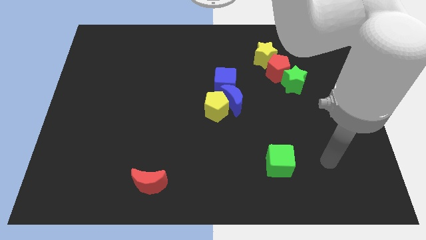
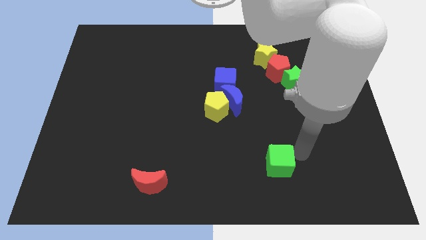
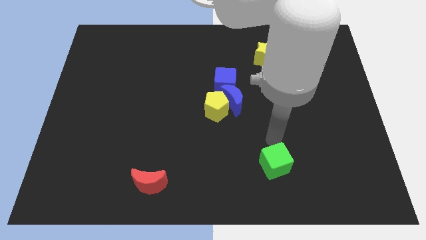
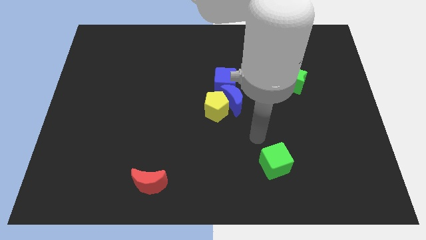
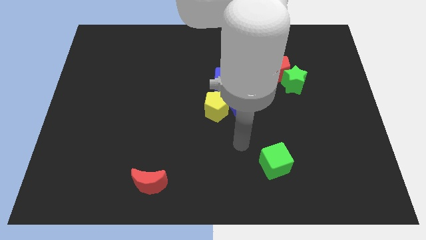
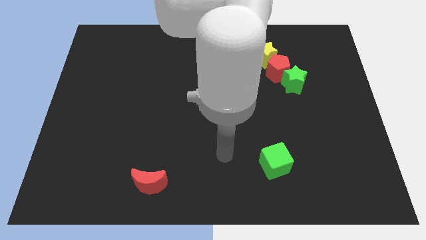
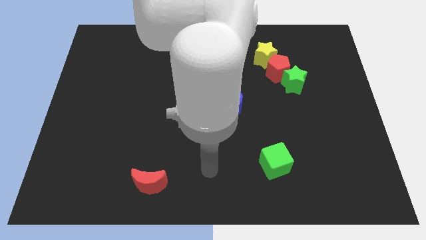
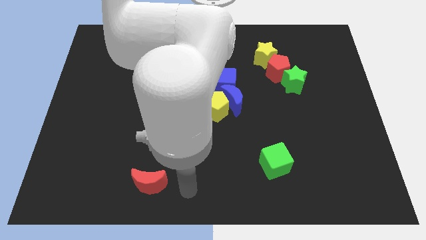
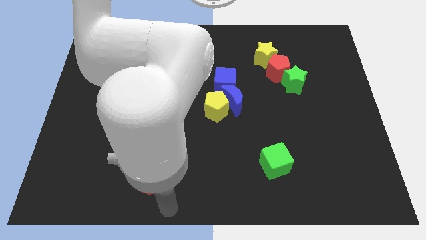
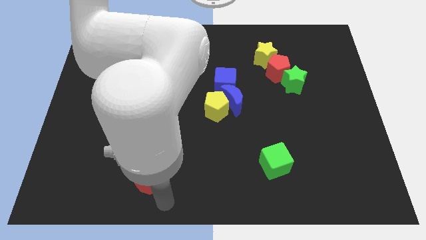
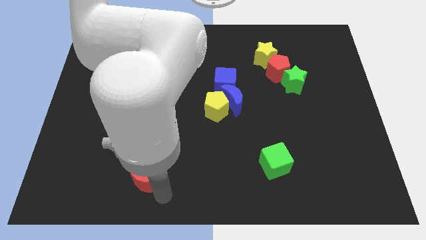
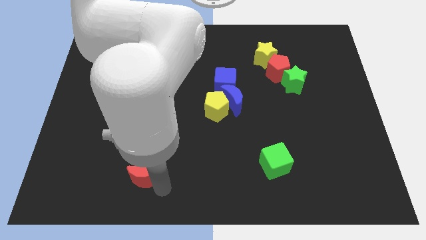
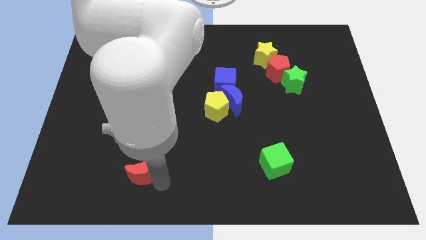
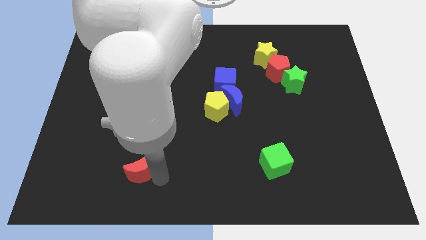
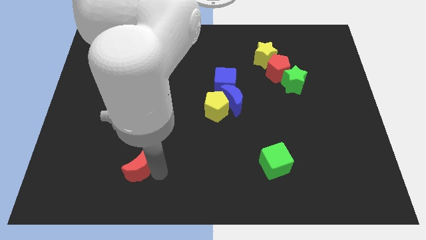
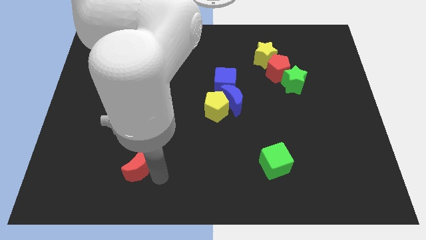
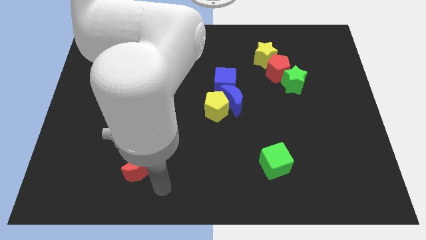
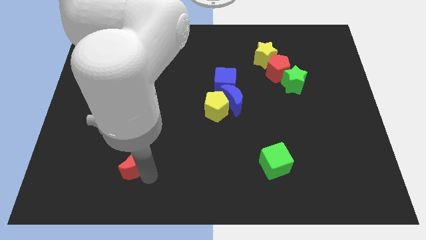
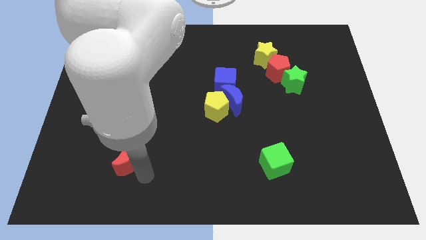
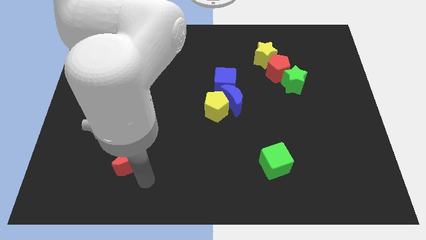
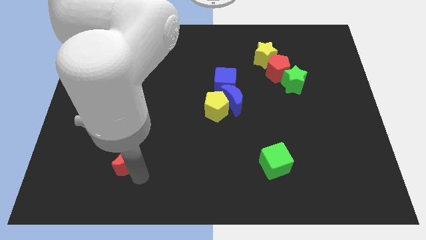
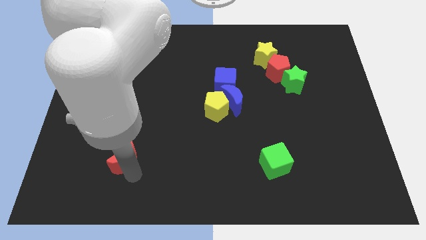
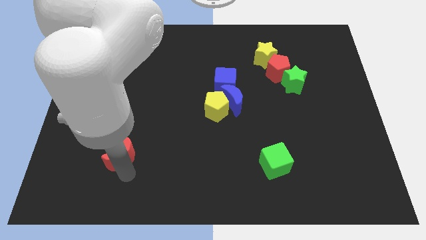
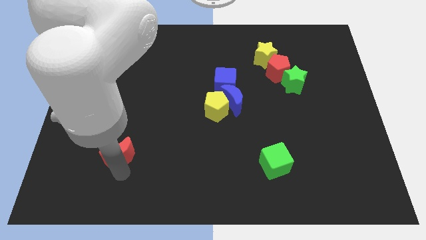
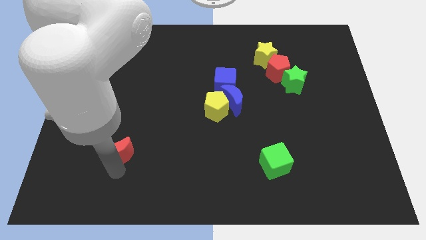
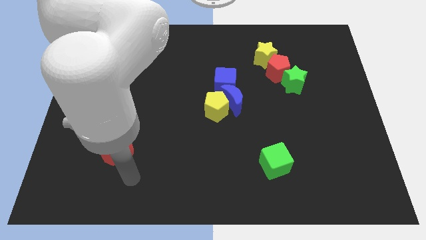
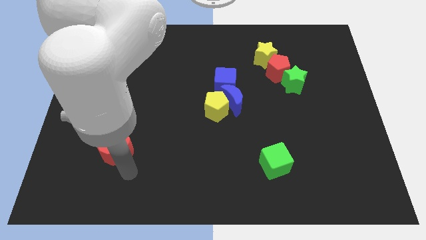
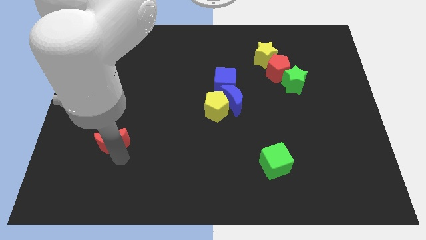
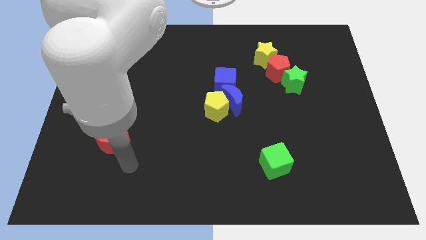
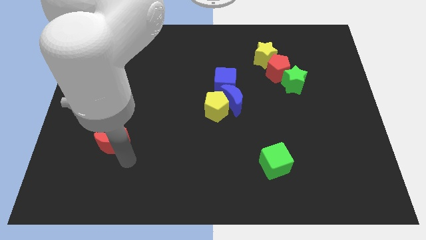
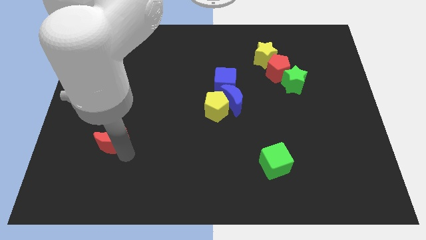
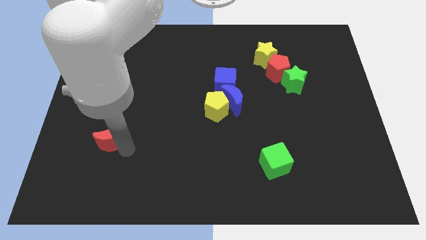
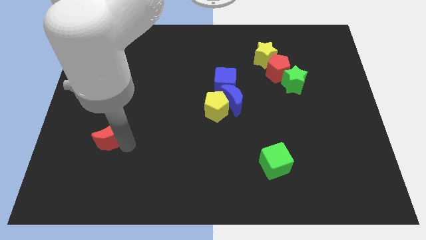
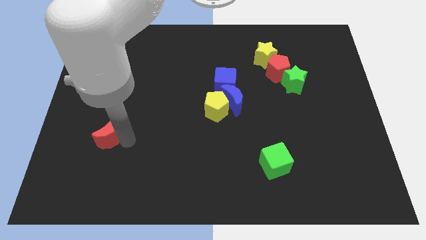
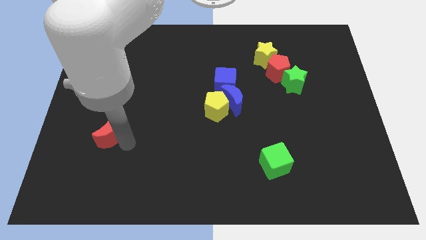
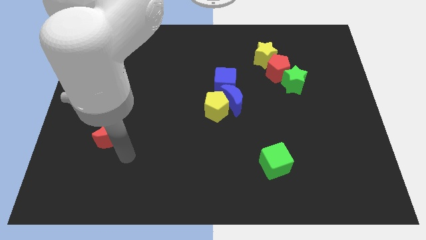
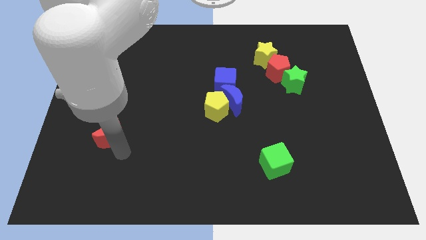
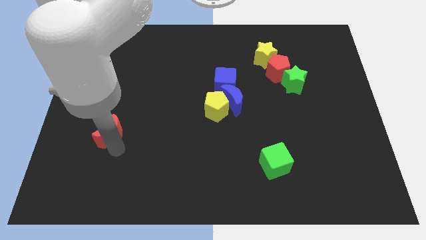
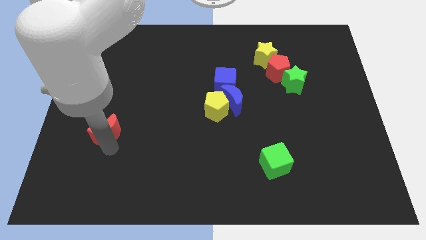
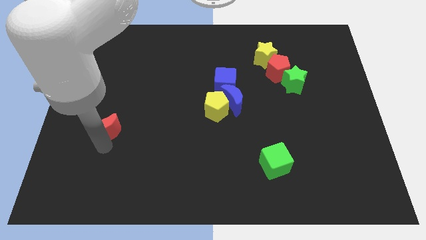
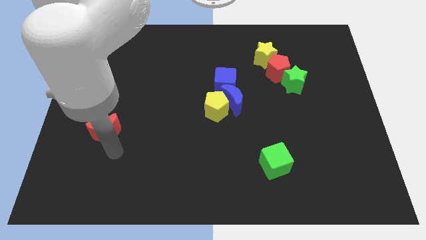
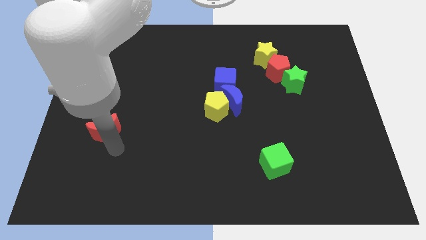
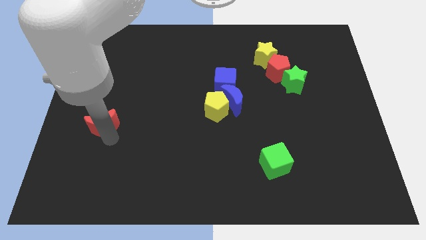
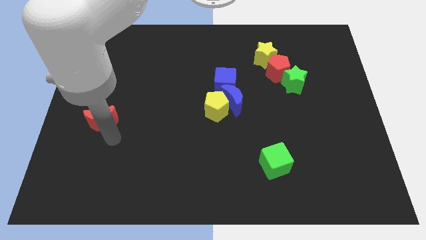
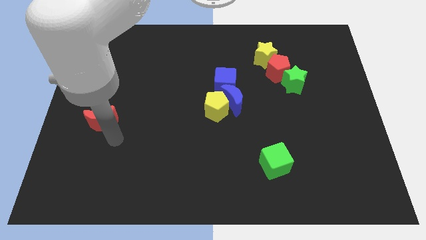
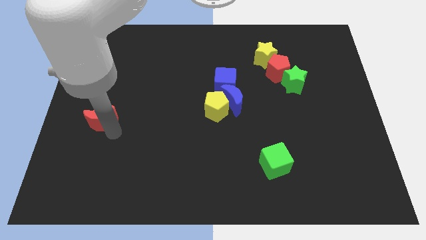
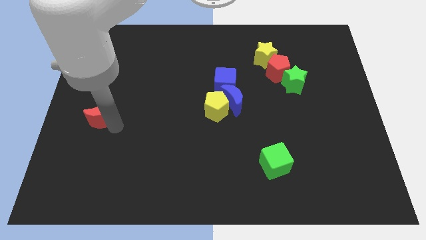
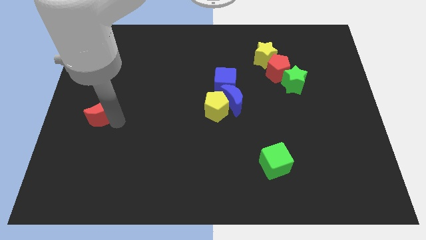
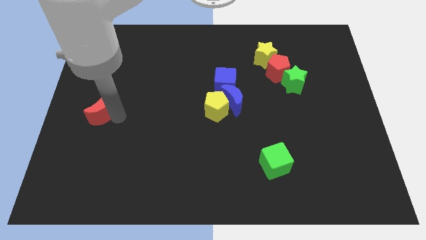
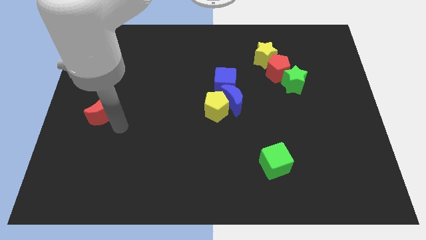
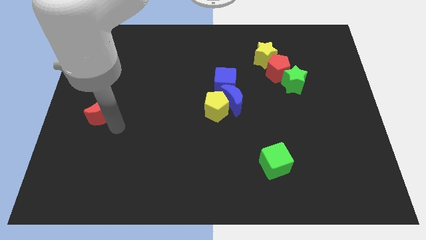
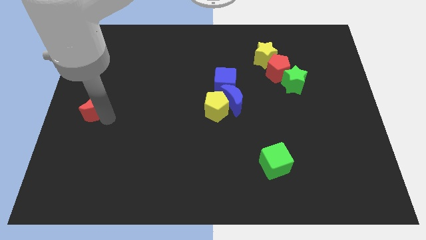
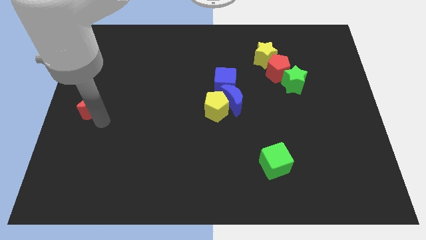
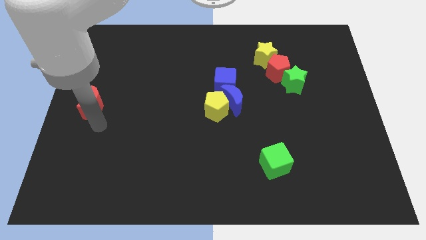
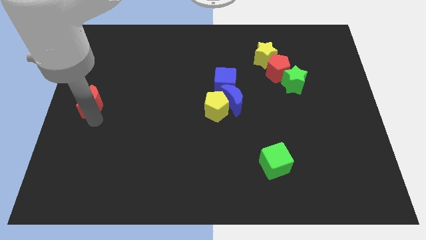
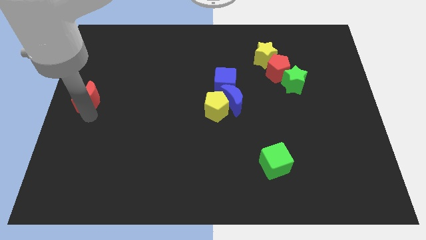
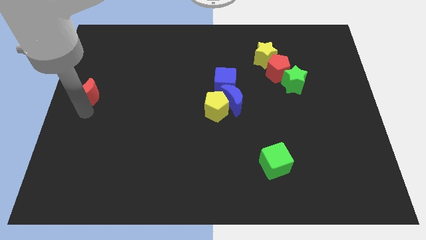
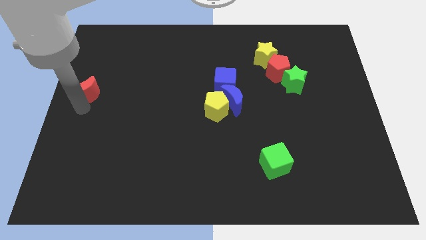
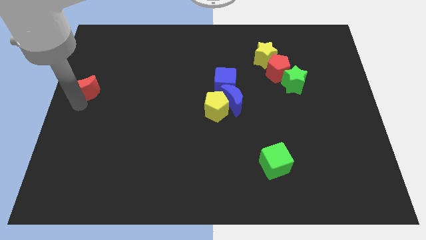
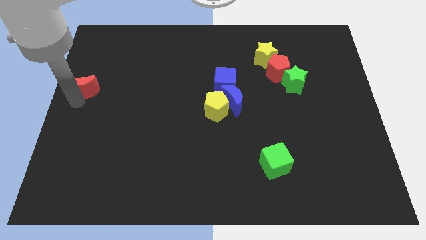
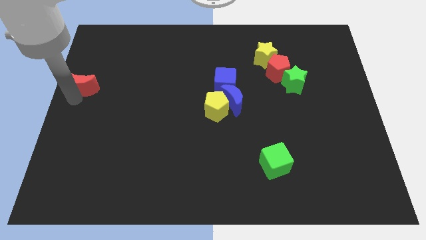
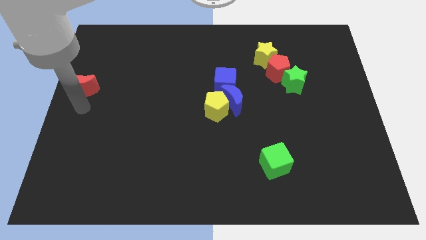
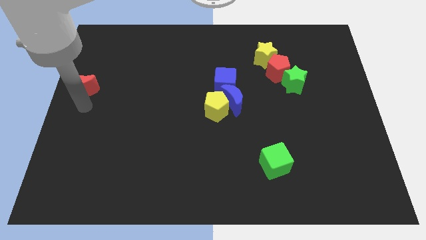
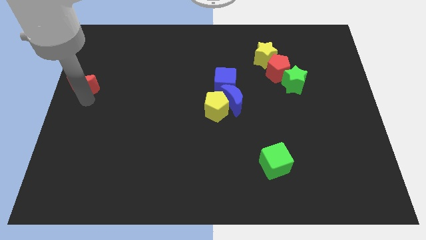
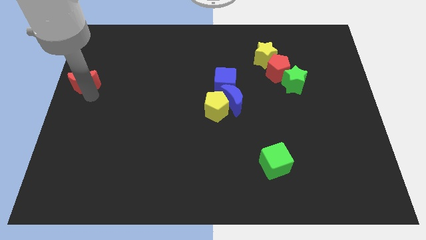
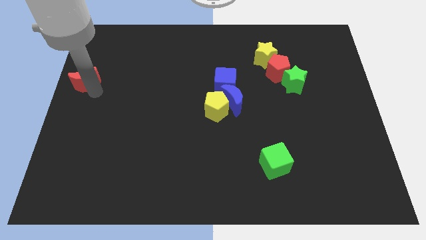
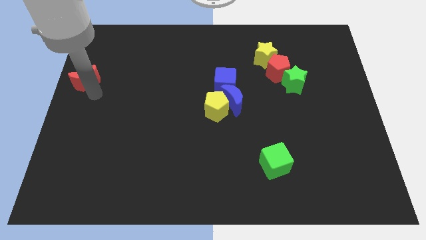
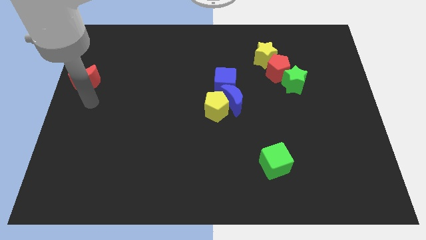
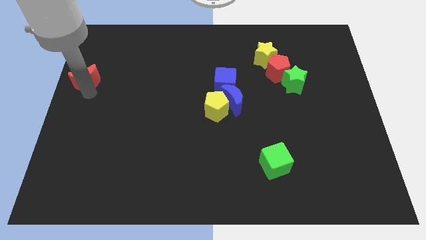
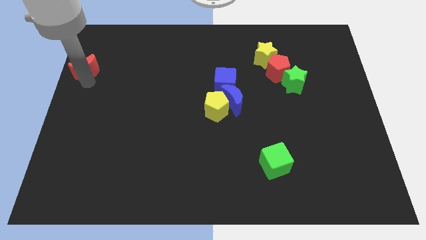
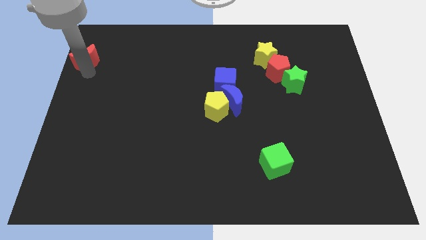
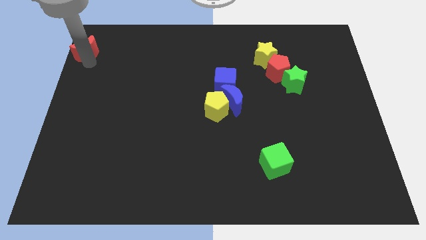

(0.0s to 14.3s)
move the red moon to the top left of the board
